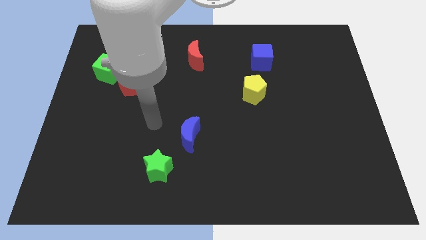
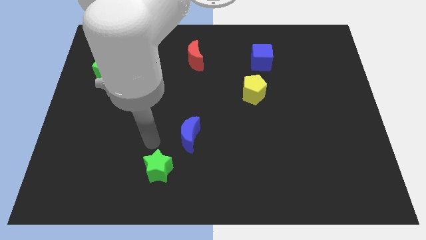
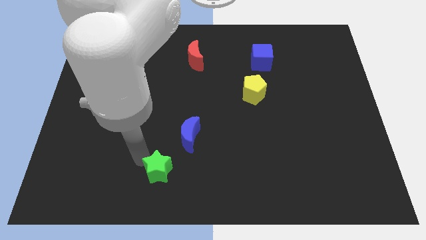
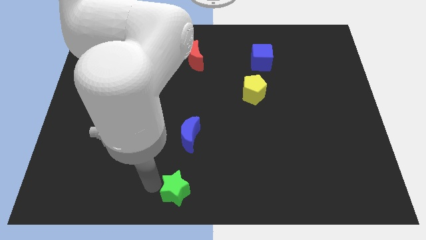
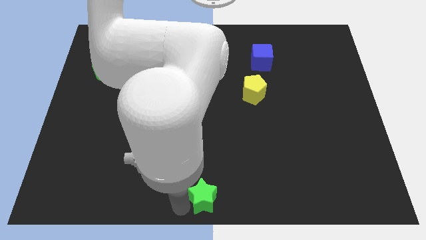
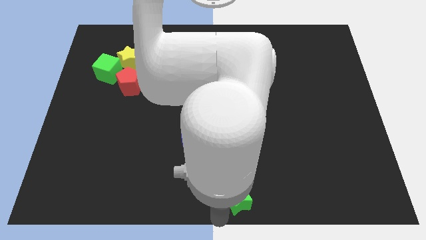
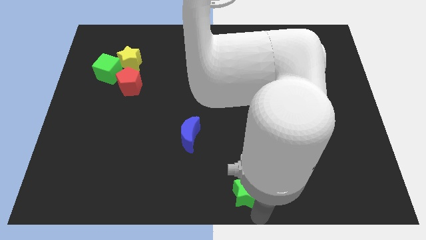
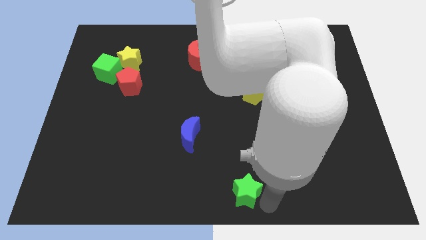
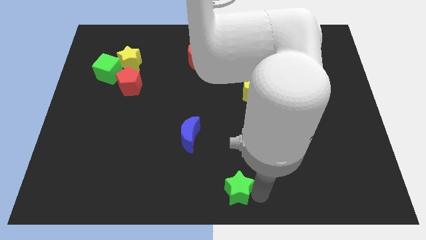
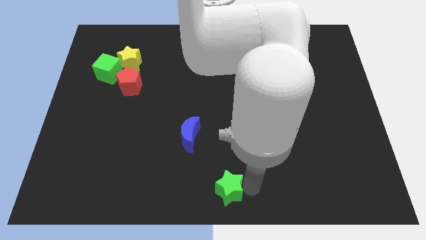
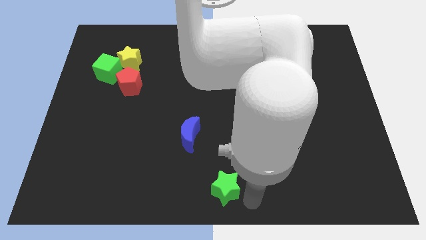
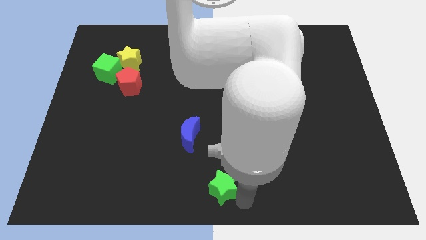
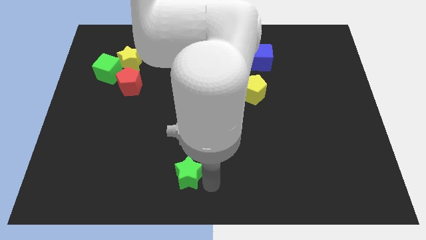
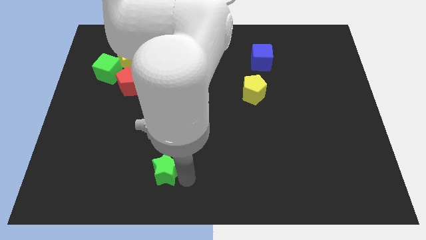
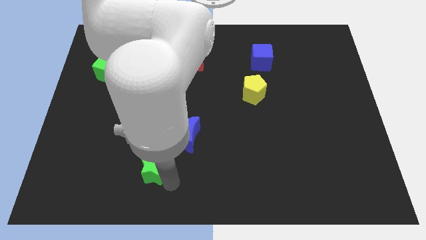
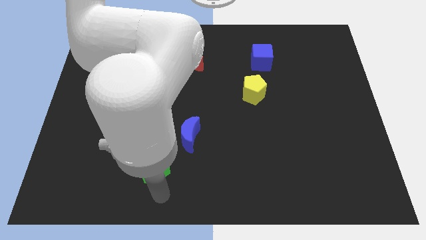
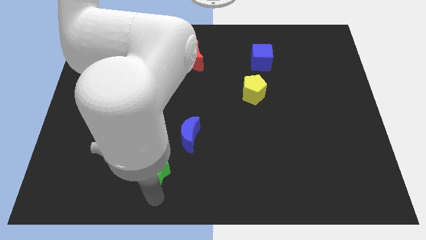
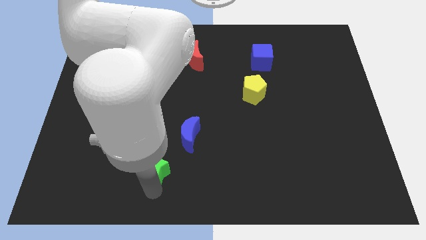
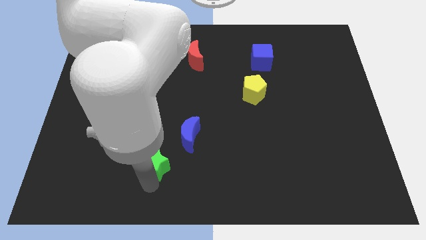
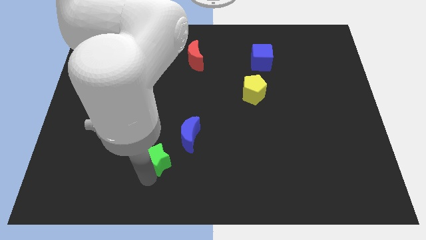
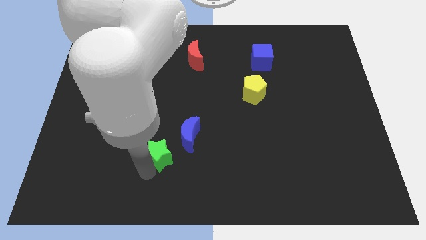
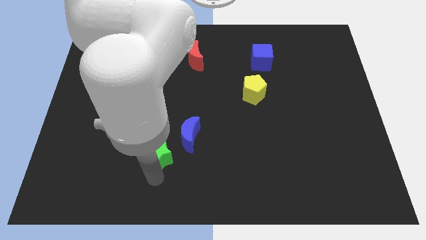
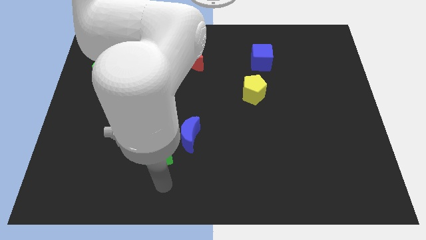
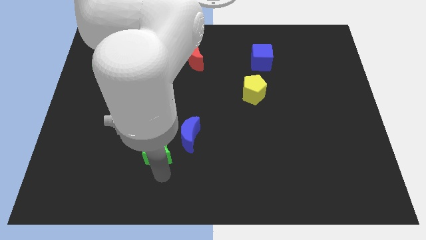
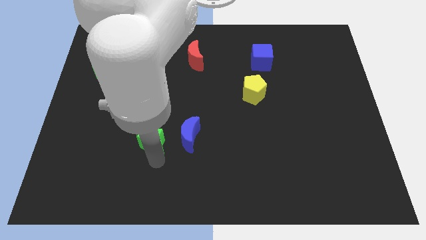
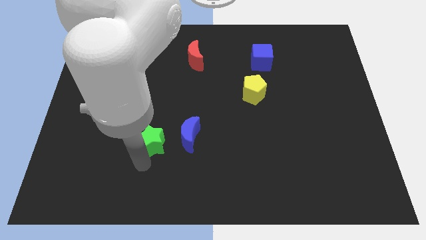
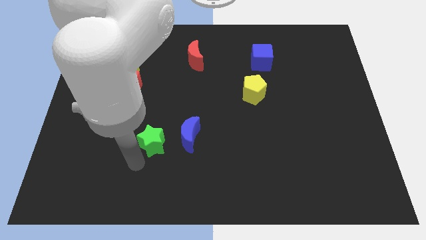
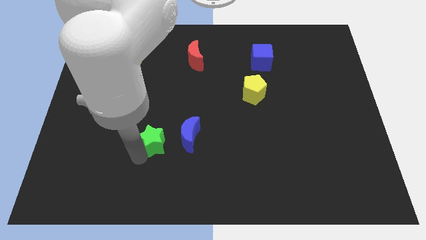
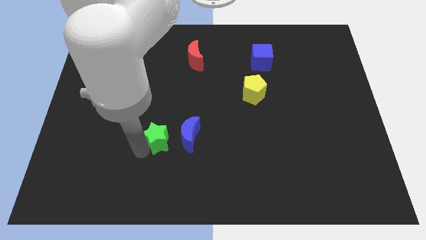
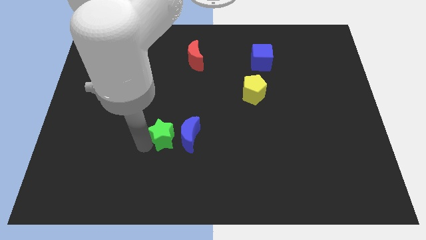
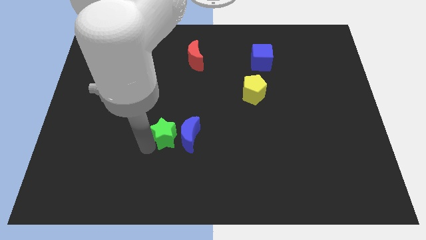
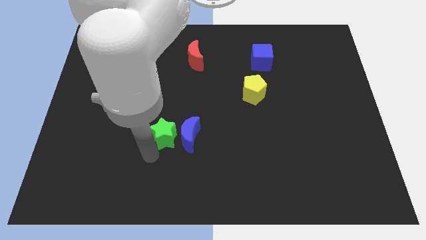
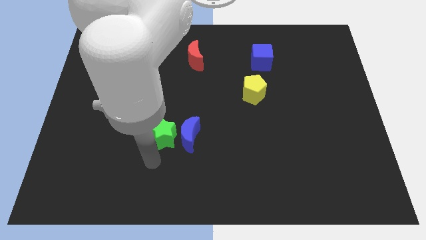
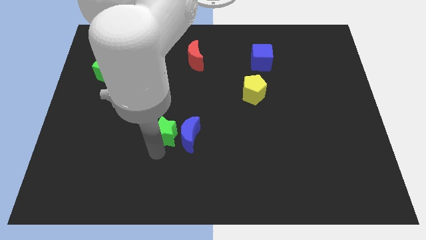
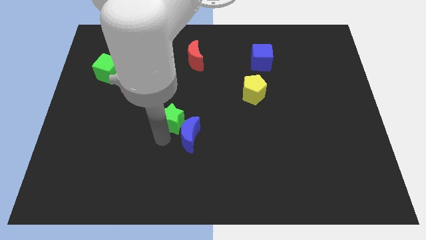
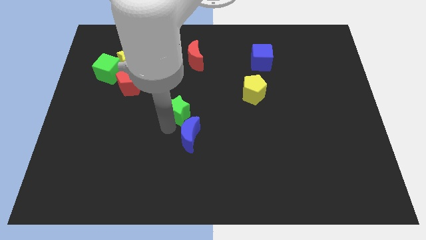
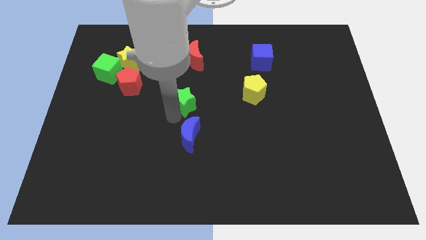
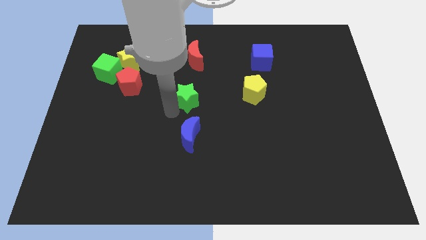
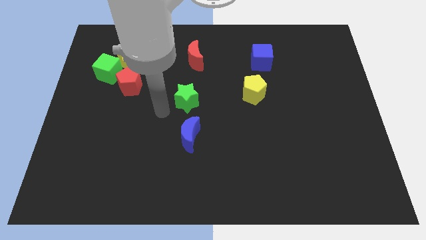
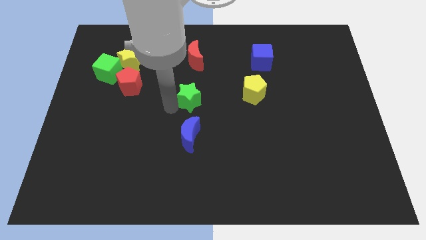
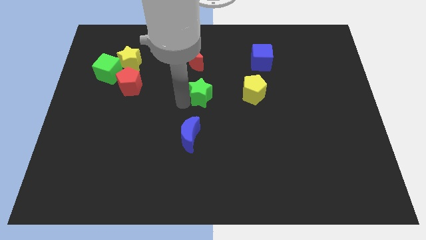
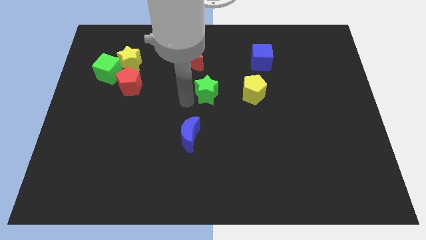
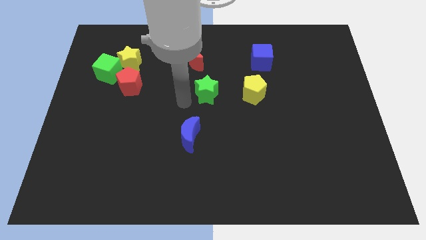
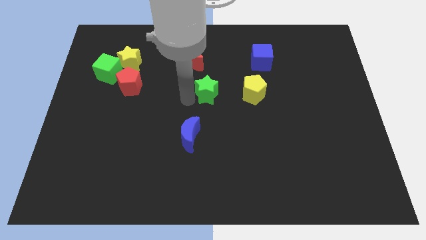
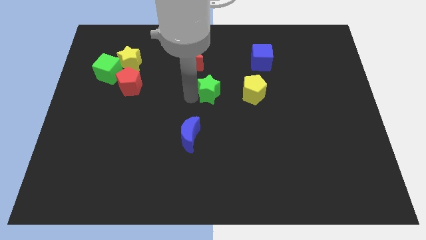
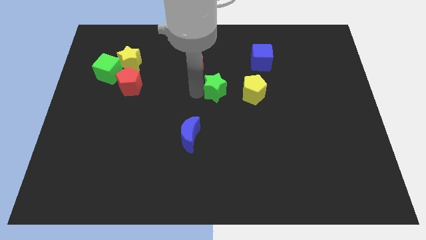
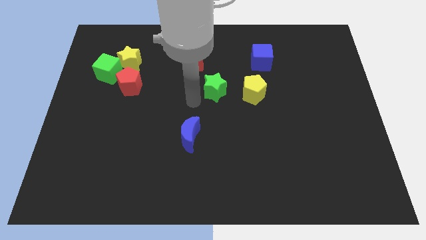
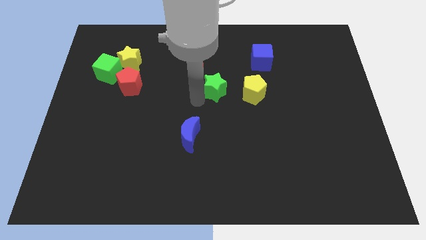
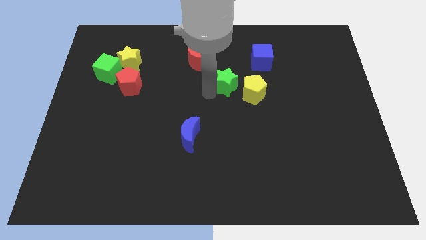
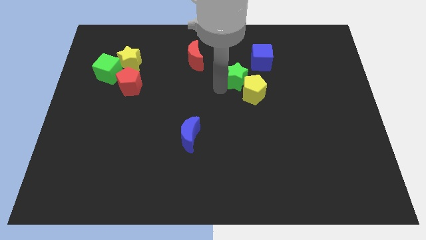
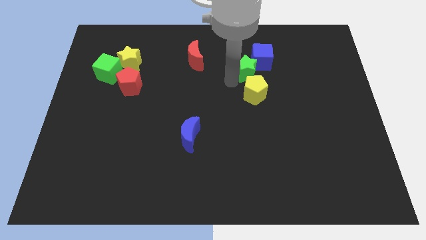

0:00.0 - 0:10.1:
slide the green star next to the blue cube

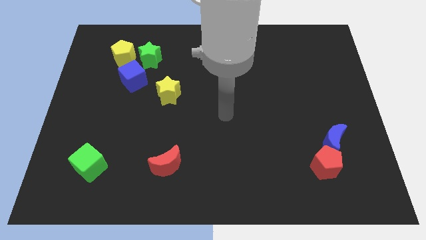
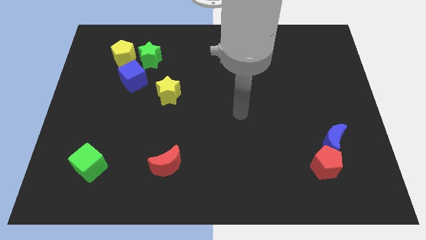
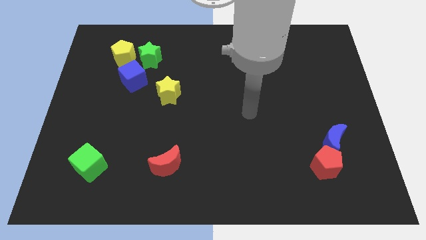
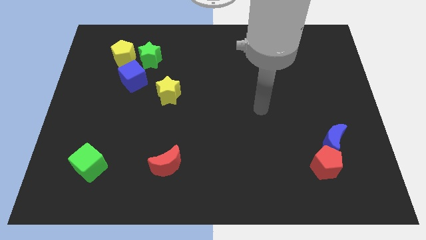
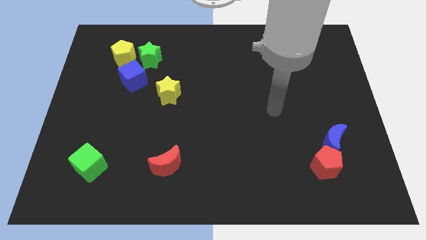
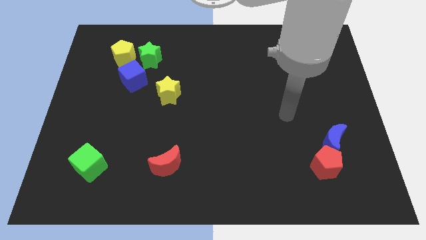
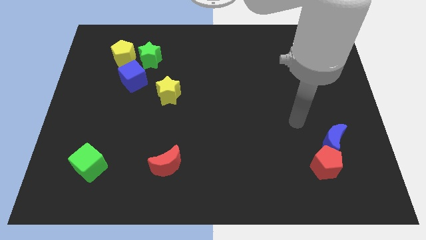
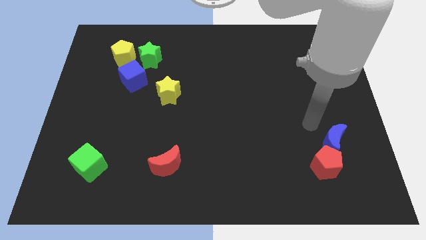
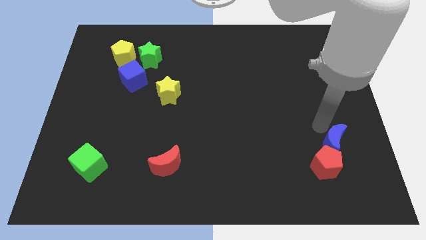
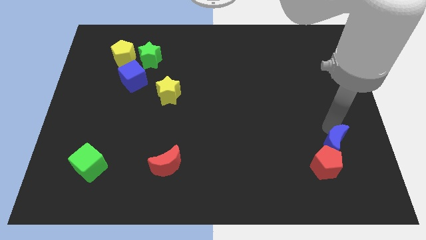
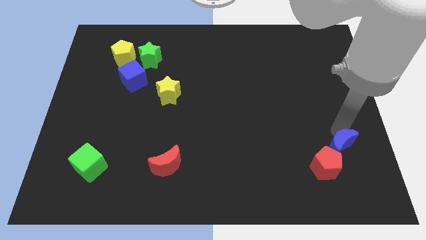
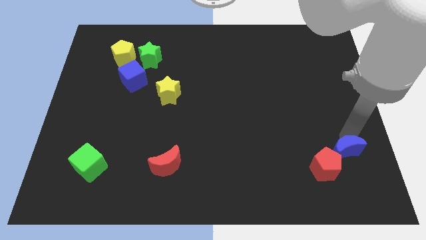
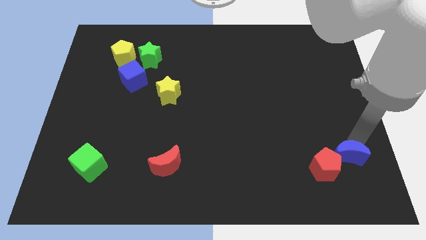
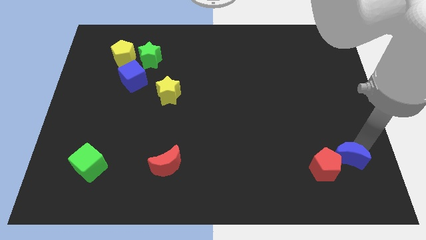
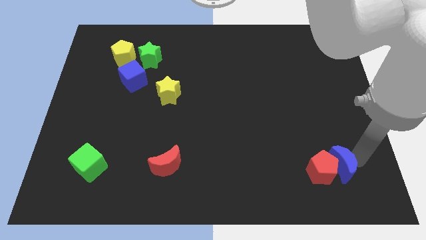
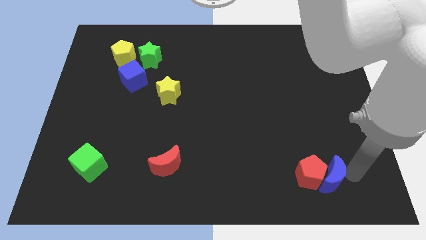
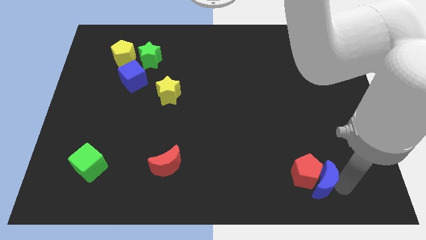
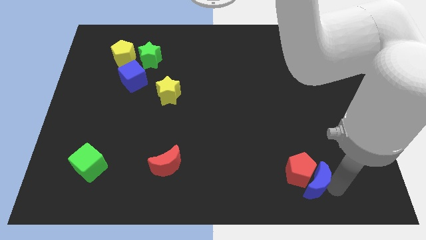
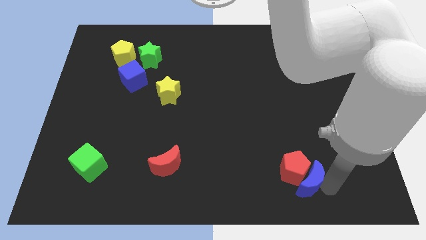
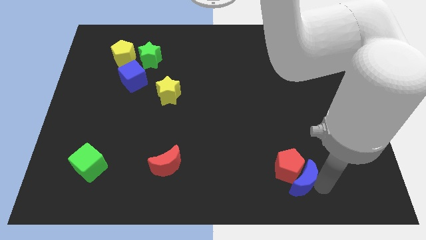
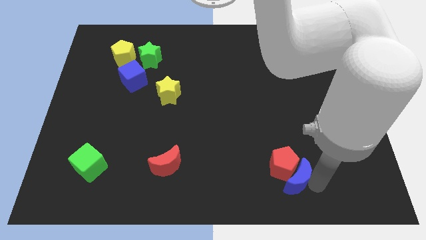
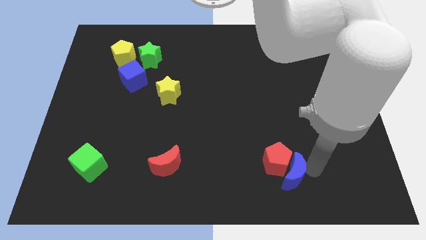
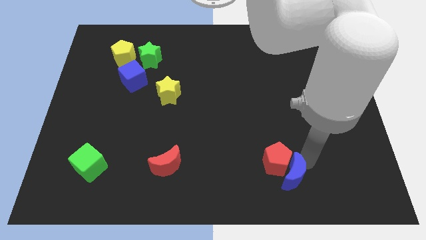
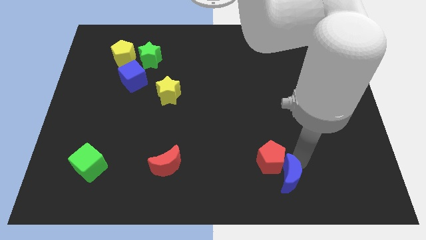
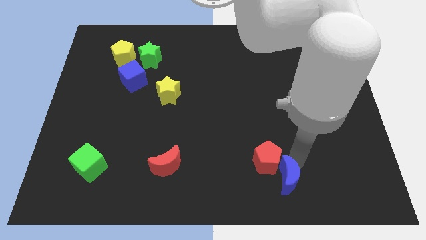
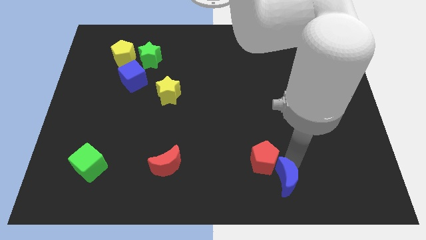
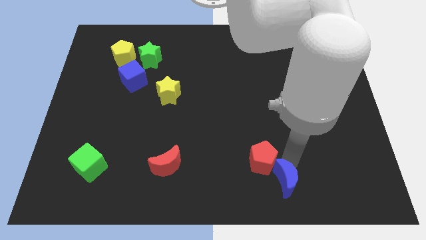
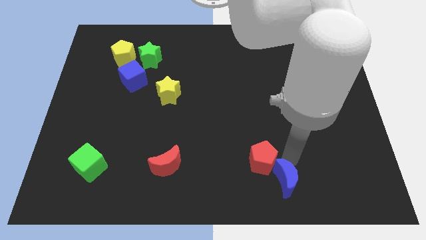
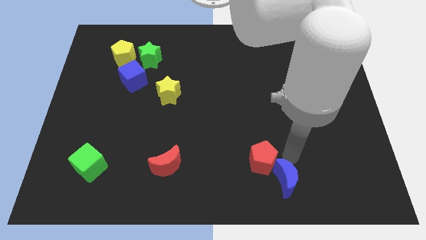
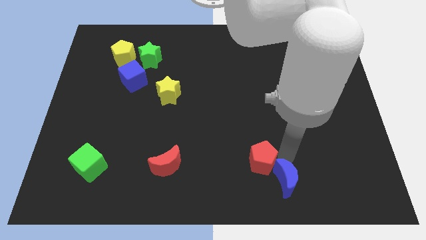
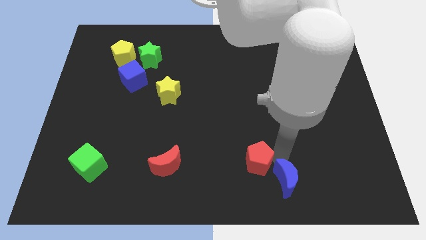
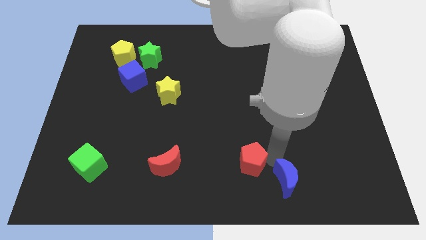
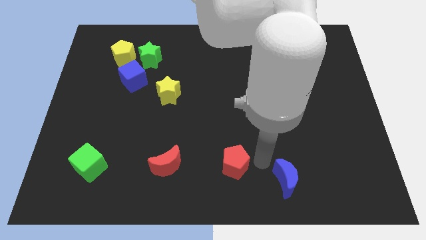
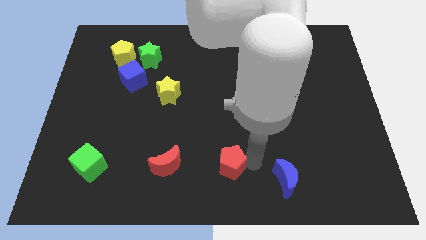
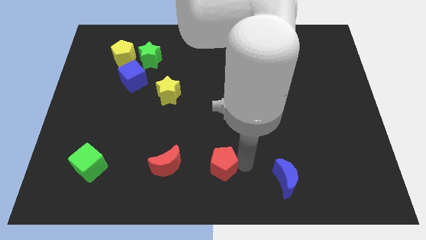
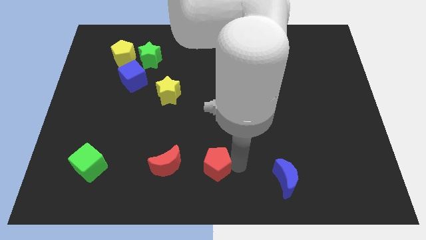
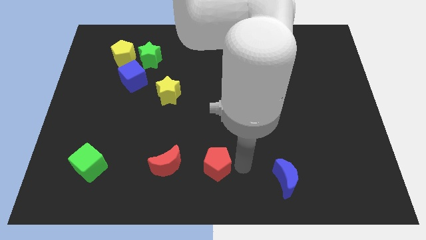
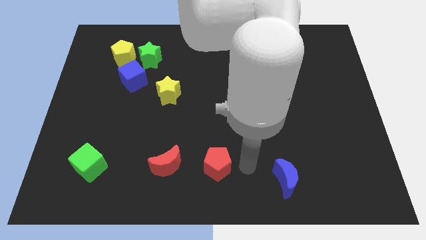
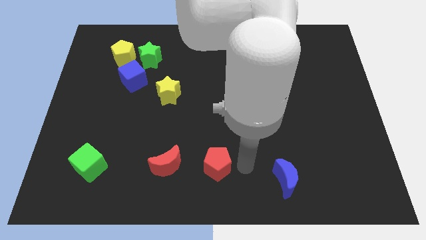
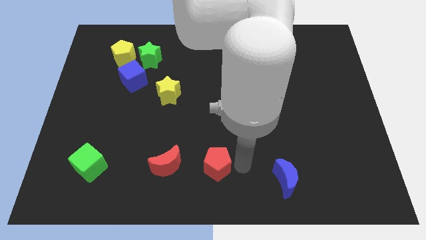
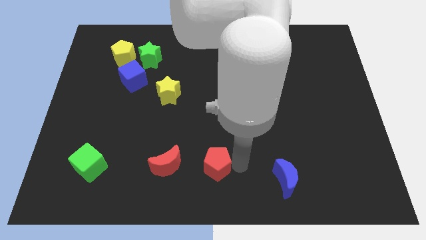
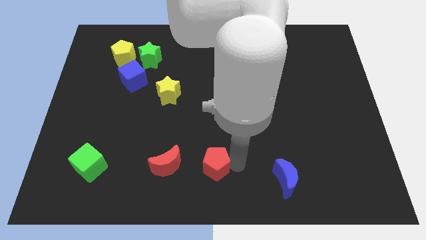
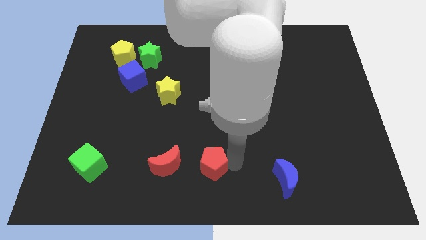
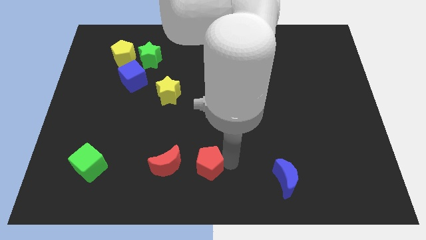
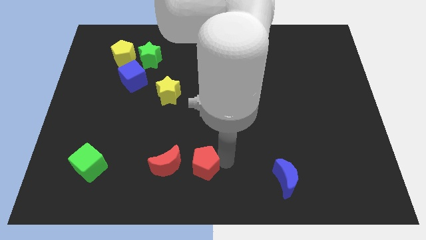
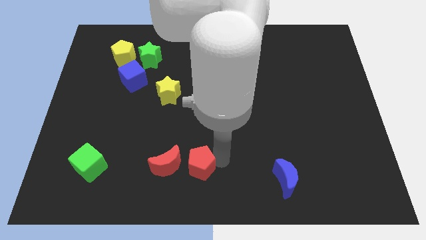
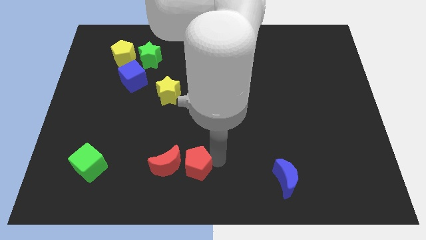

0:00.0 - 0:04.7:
push the red pentagon close to the red moon
